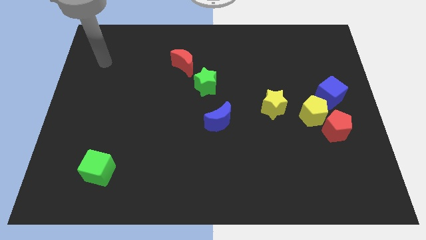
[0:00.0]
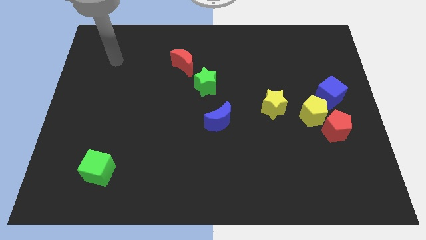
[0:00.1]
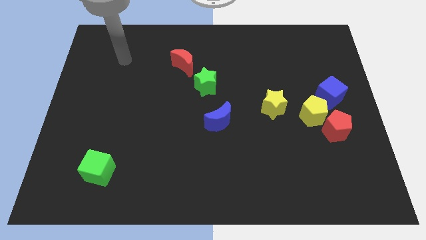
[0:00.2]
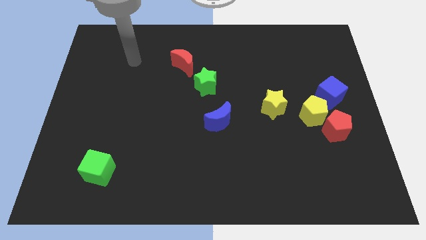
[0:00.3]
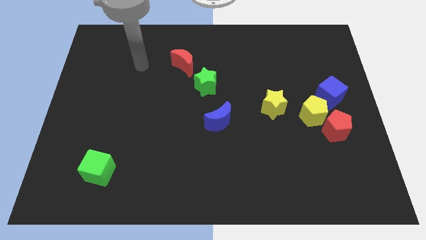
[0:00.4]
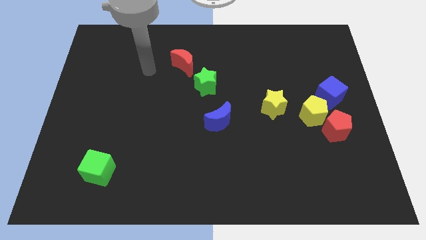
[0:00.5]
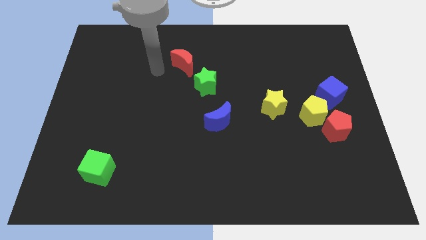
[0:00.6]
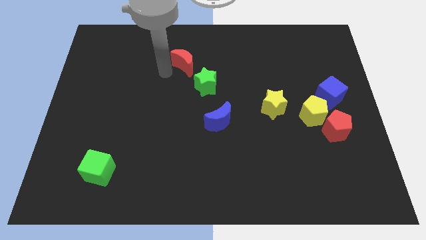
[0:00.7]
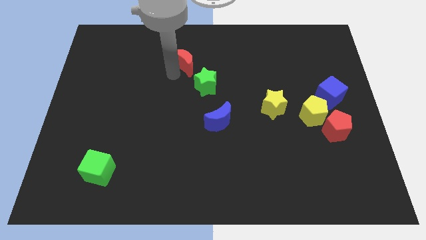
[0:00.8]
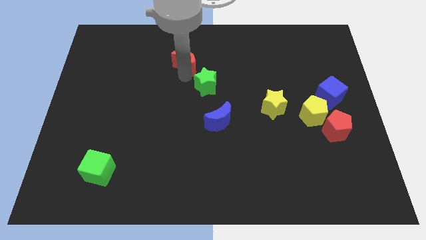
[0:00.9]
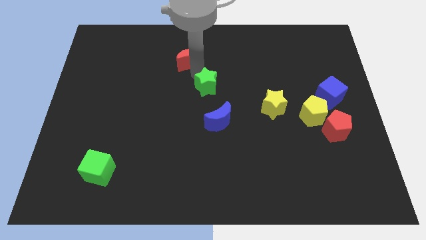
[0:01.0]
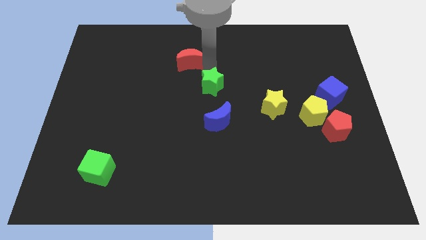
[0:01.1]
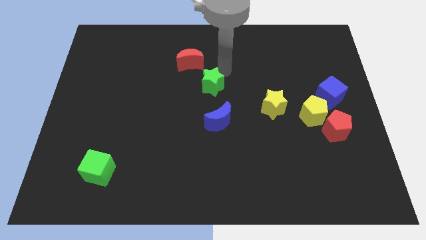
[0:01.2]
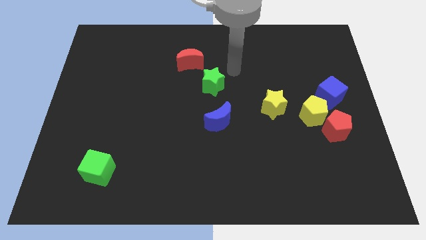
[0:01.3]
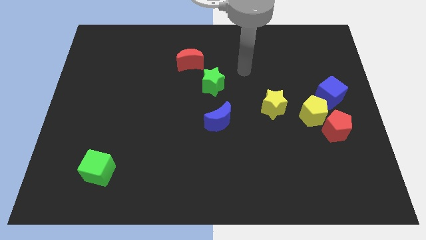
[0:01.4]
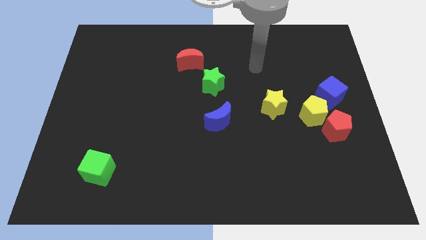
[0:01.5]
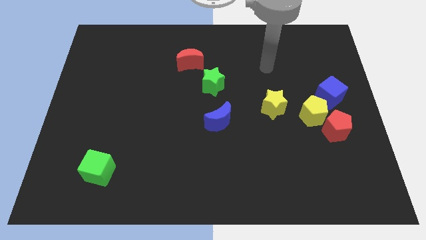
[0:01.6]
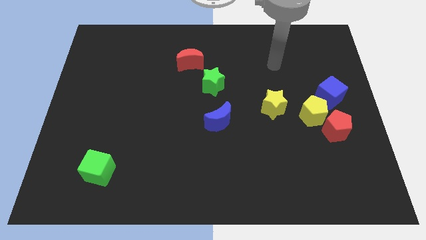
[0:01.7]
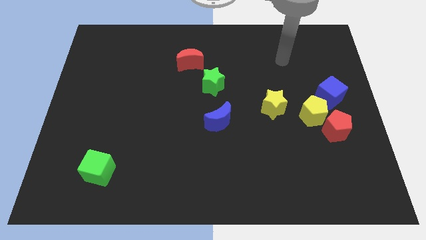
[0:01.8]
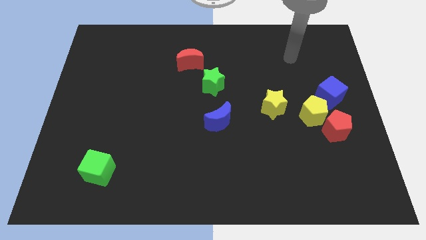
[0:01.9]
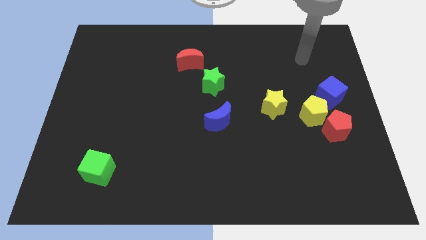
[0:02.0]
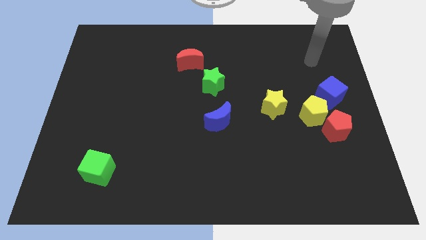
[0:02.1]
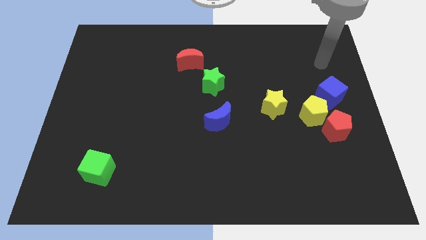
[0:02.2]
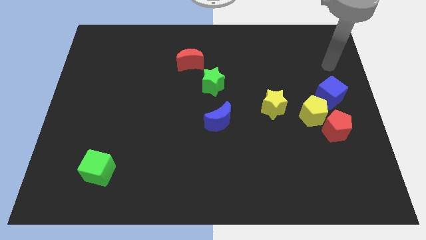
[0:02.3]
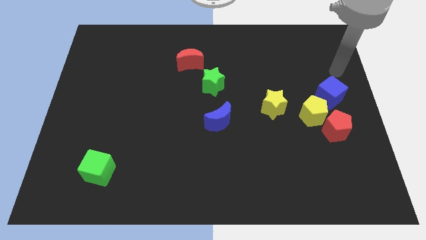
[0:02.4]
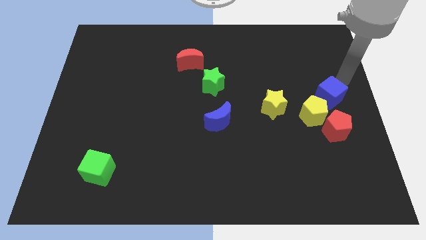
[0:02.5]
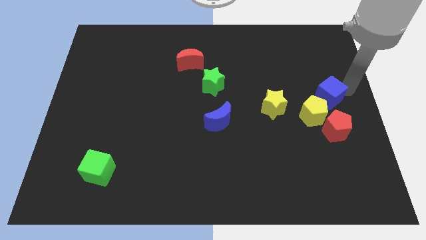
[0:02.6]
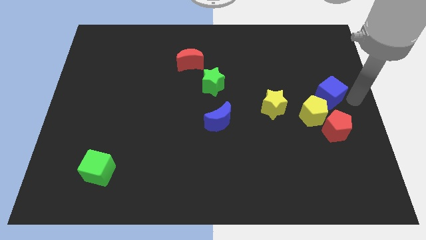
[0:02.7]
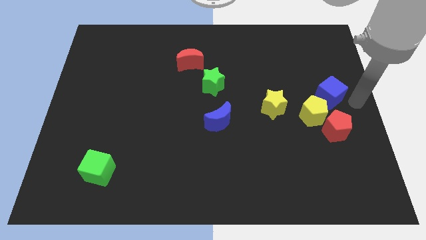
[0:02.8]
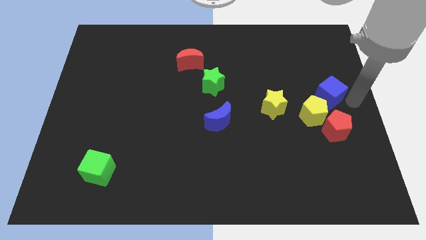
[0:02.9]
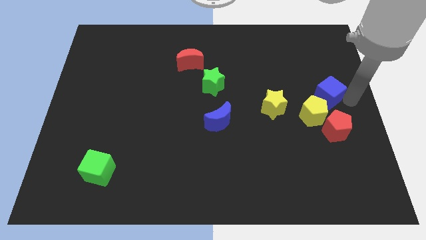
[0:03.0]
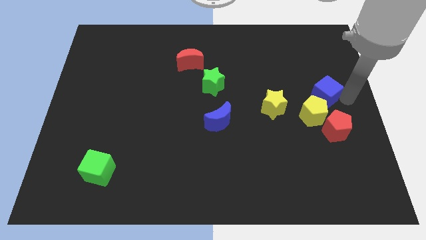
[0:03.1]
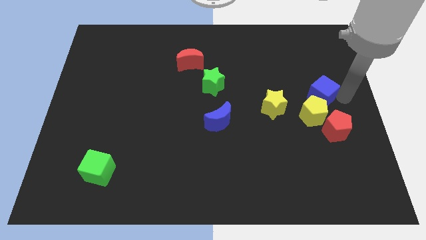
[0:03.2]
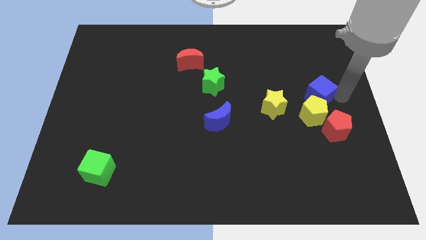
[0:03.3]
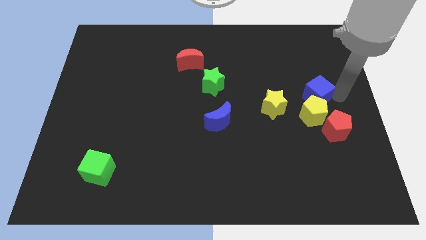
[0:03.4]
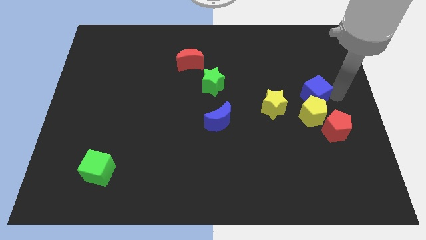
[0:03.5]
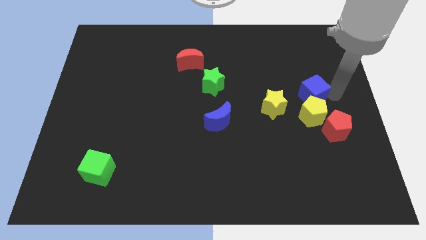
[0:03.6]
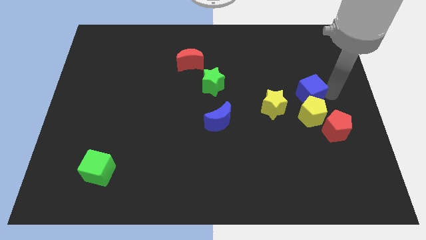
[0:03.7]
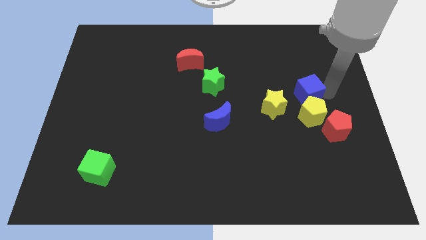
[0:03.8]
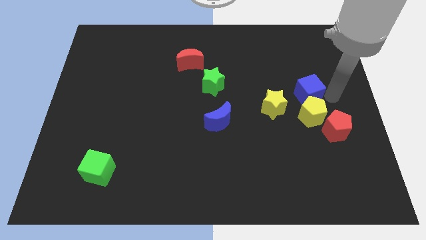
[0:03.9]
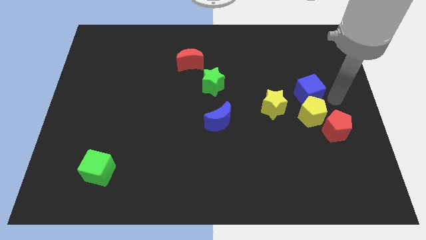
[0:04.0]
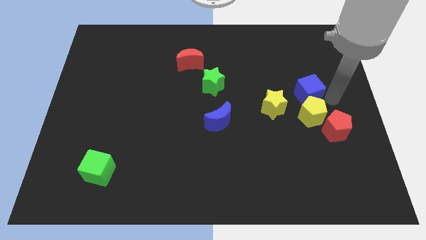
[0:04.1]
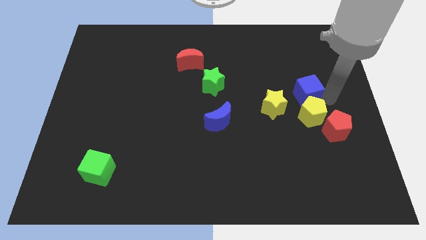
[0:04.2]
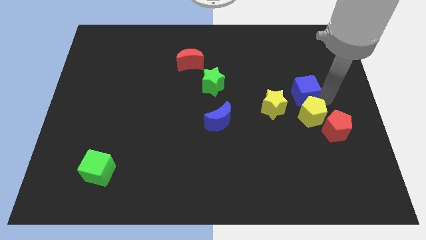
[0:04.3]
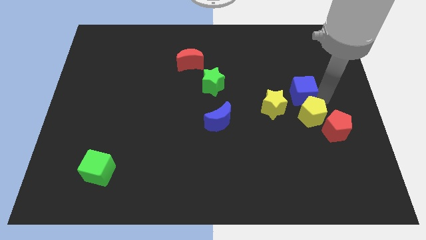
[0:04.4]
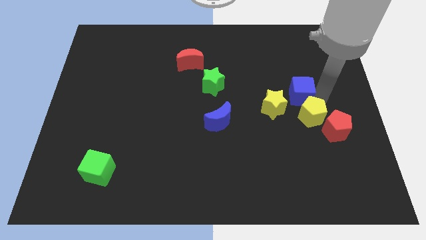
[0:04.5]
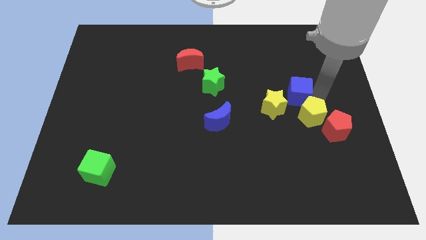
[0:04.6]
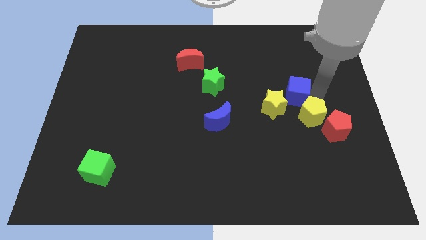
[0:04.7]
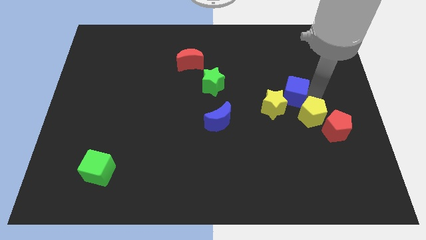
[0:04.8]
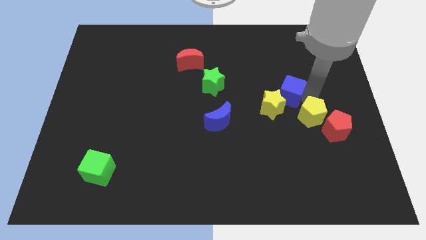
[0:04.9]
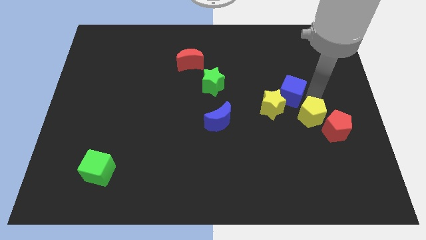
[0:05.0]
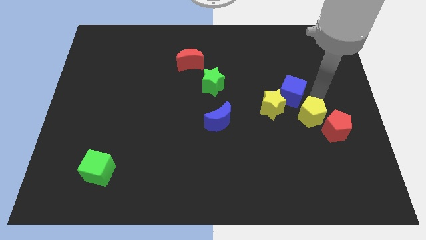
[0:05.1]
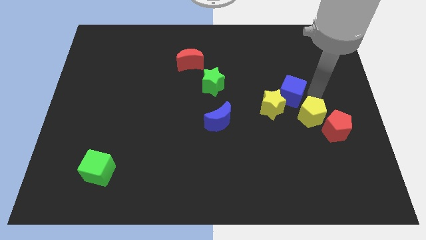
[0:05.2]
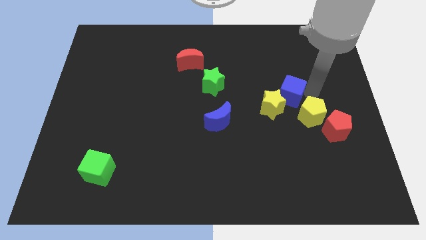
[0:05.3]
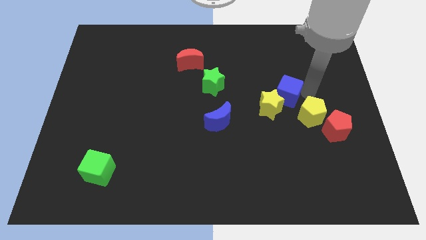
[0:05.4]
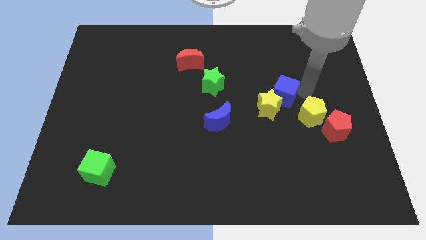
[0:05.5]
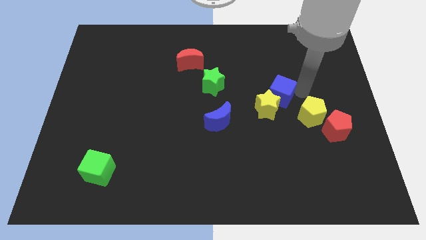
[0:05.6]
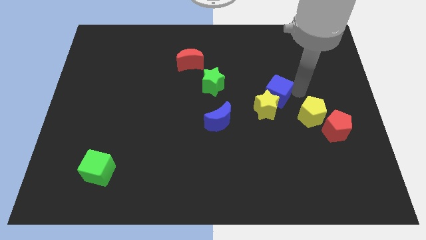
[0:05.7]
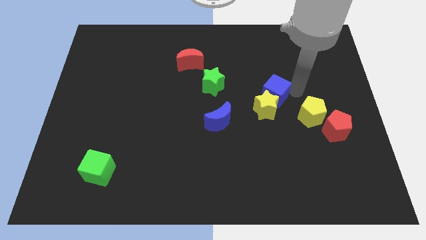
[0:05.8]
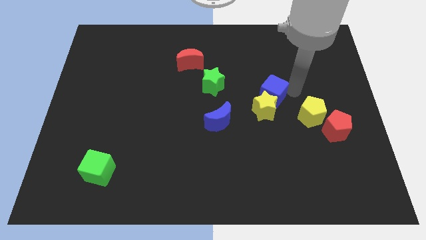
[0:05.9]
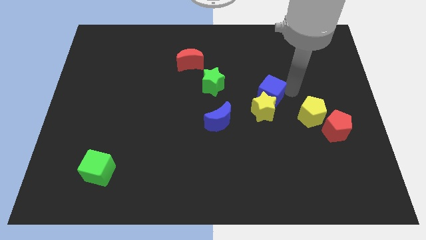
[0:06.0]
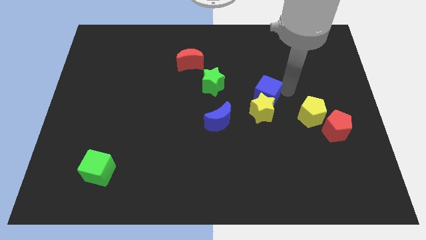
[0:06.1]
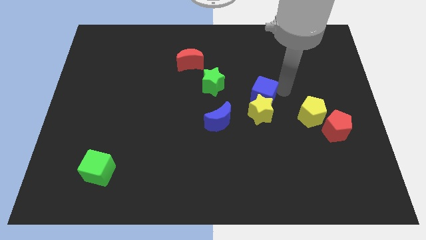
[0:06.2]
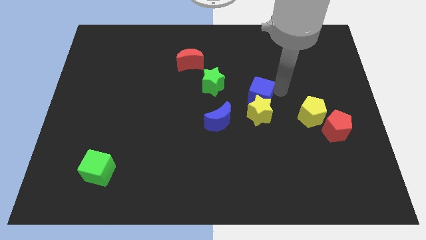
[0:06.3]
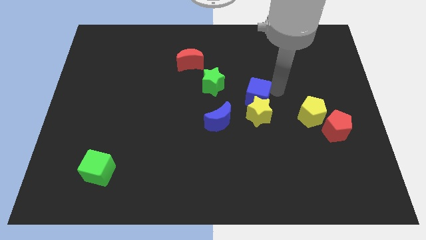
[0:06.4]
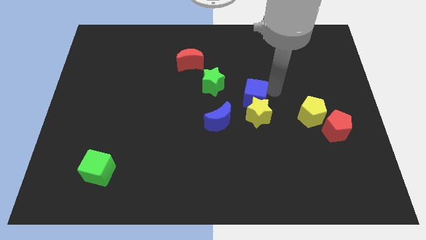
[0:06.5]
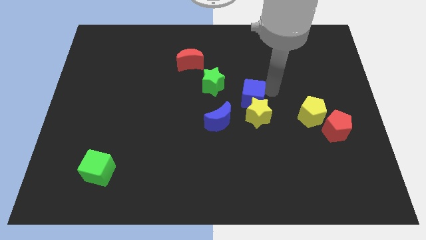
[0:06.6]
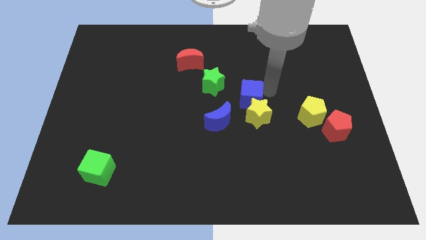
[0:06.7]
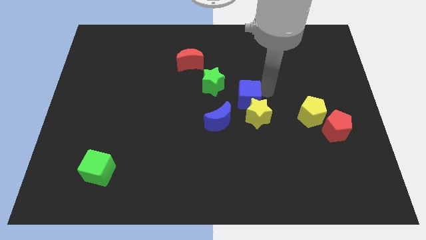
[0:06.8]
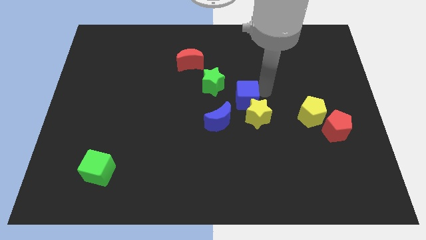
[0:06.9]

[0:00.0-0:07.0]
slide the blue cube to the left

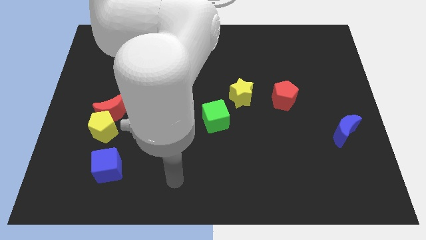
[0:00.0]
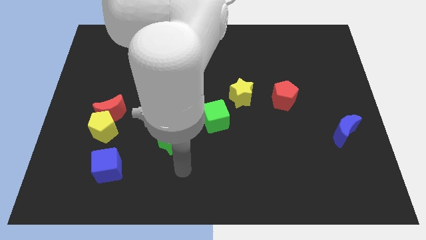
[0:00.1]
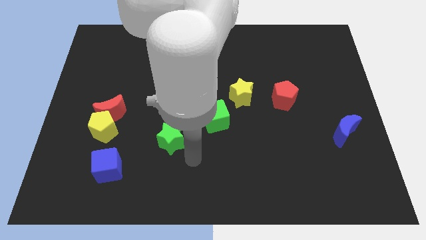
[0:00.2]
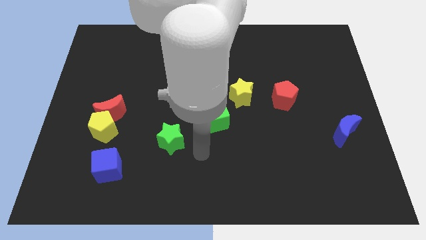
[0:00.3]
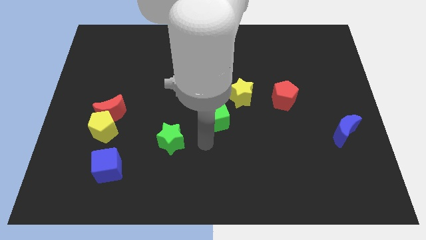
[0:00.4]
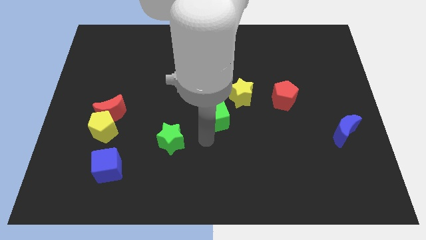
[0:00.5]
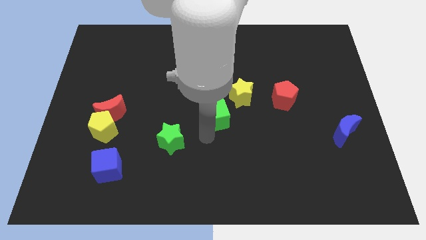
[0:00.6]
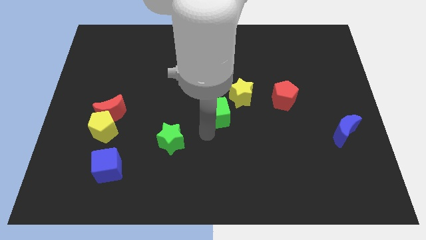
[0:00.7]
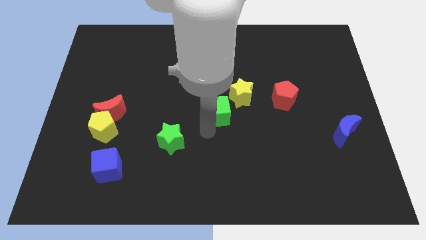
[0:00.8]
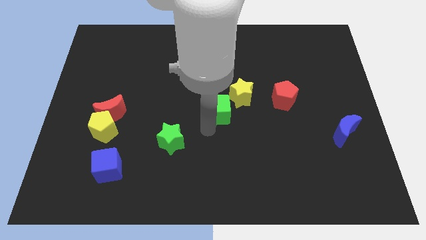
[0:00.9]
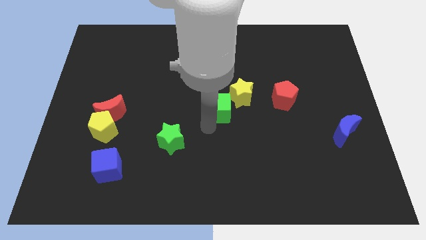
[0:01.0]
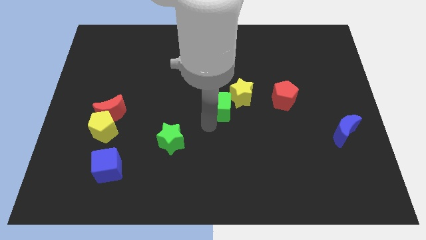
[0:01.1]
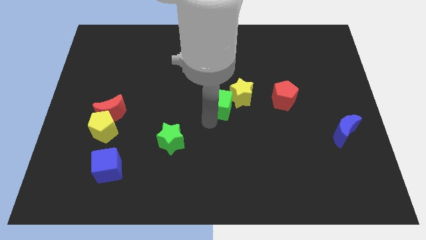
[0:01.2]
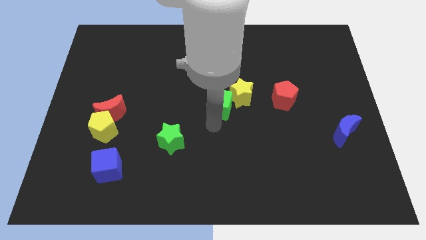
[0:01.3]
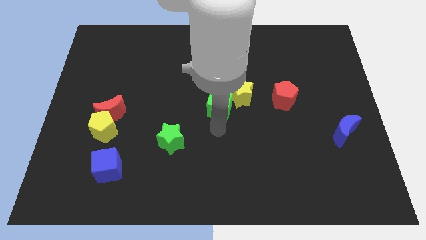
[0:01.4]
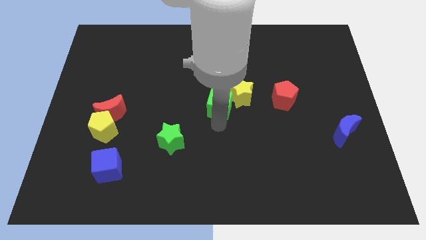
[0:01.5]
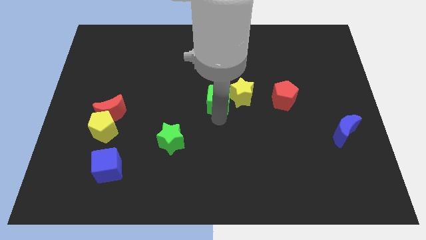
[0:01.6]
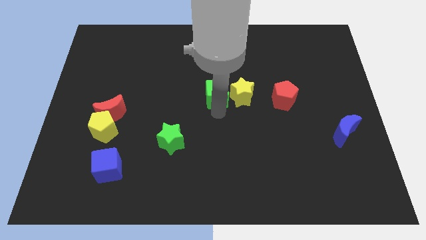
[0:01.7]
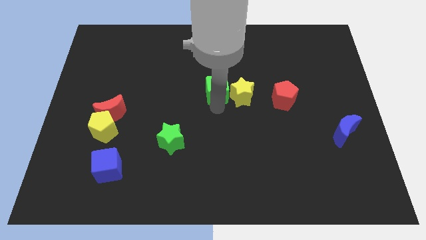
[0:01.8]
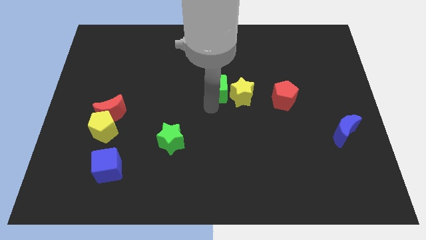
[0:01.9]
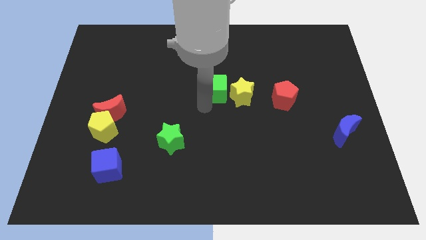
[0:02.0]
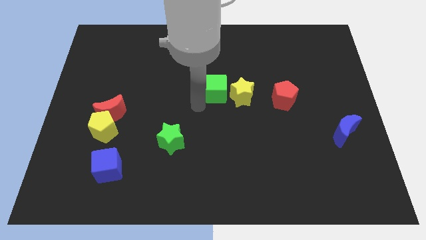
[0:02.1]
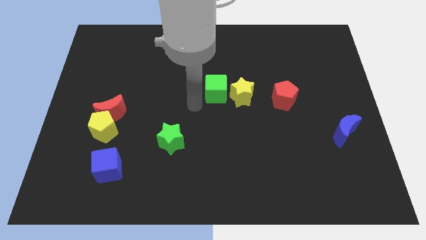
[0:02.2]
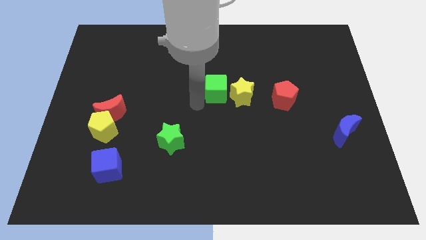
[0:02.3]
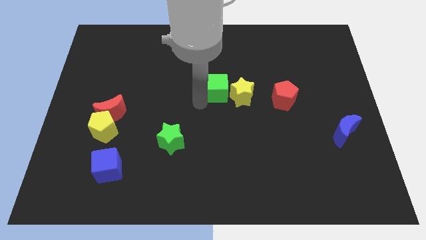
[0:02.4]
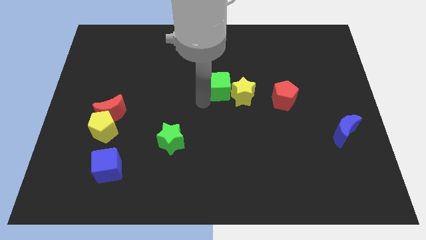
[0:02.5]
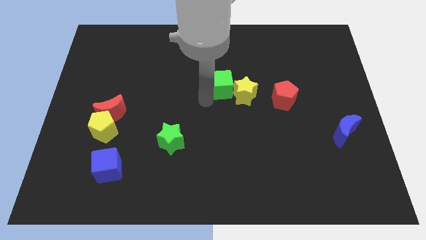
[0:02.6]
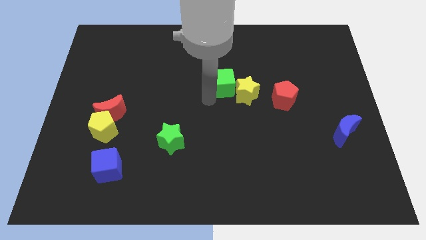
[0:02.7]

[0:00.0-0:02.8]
move the green cube diagonally up and to the right a little bit
